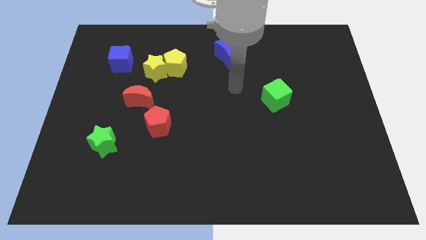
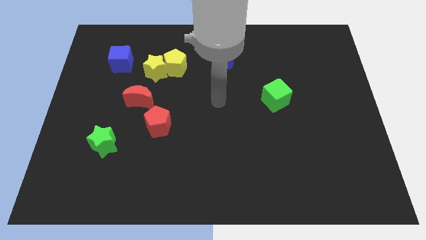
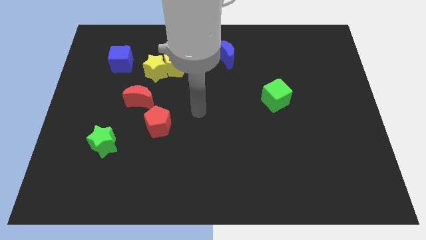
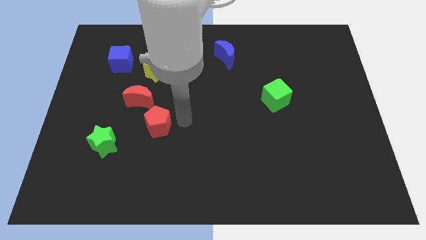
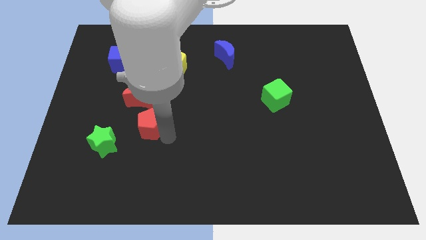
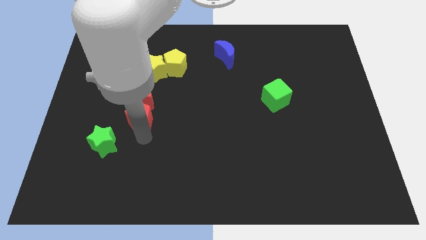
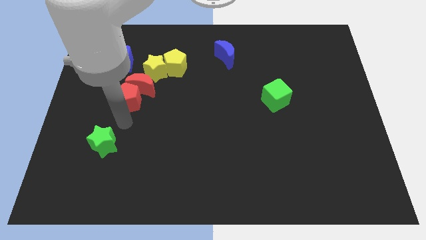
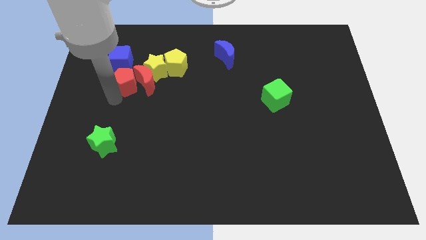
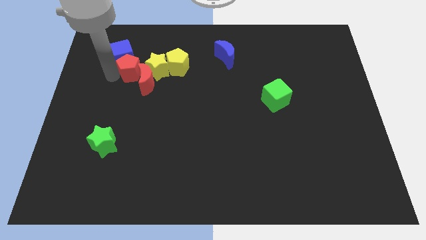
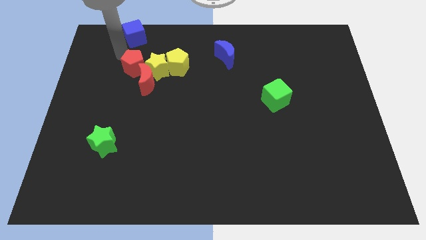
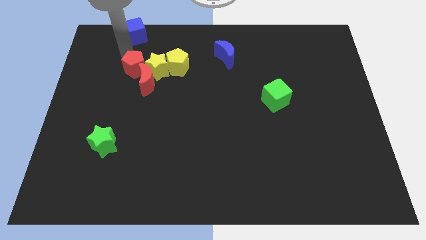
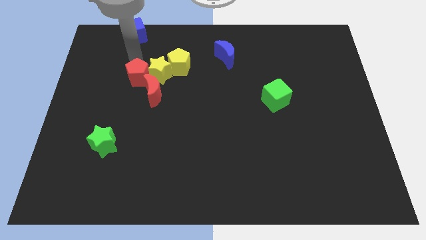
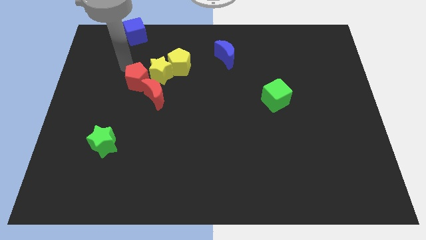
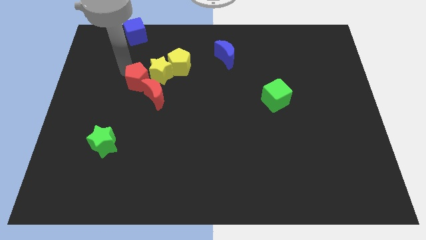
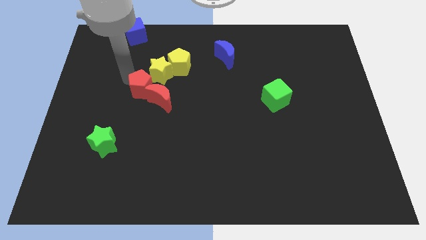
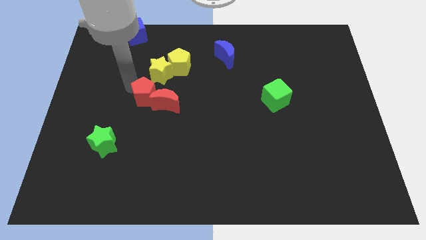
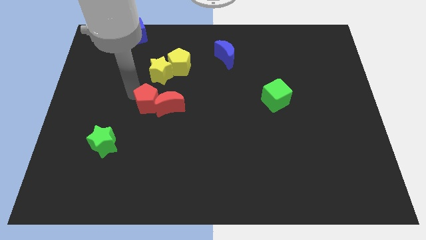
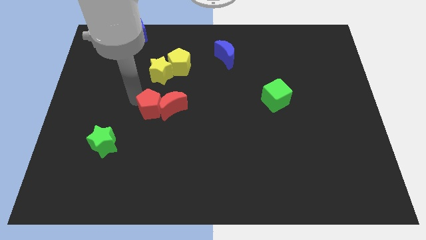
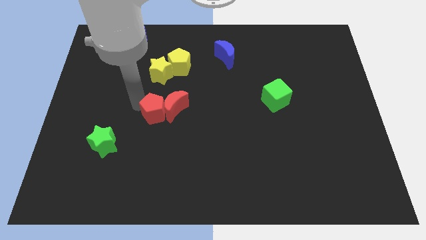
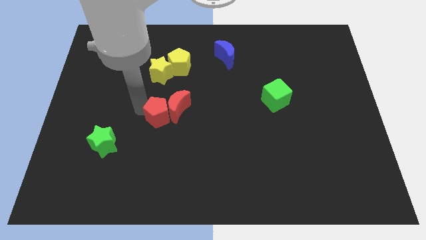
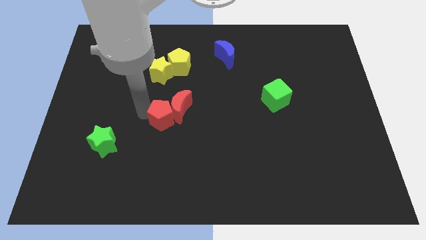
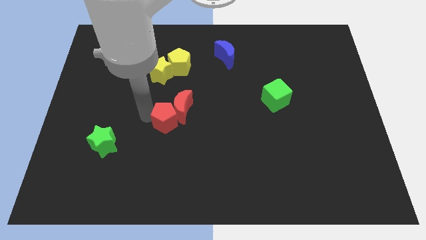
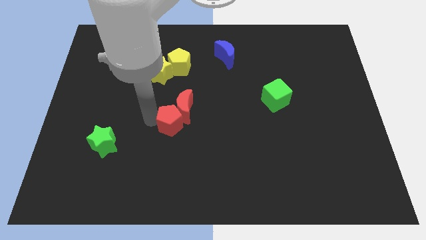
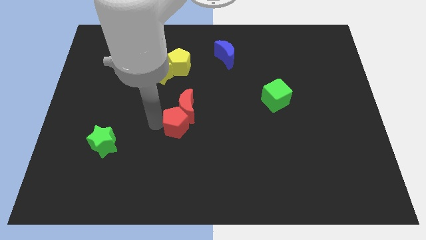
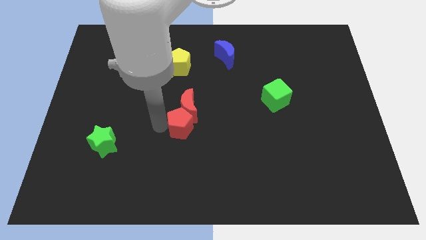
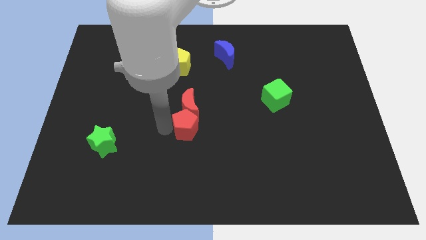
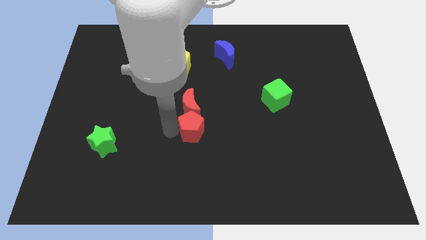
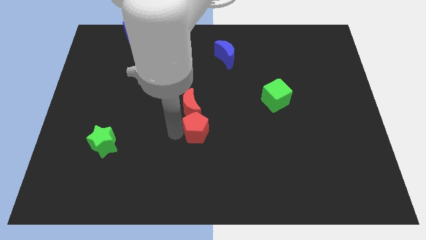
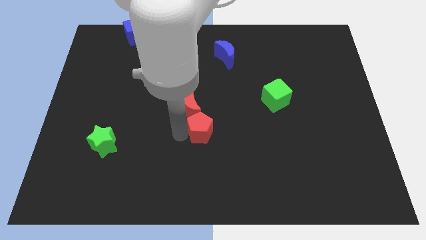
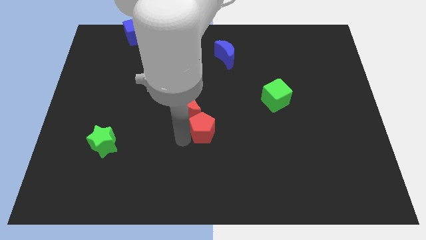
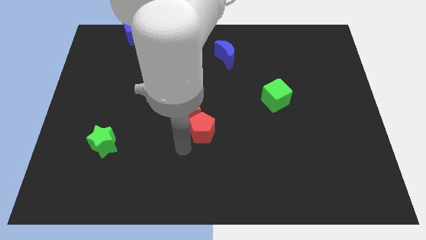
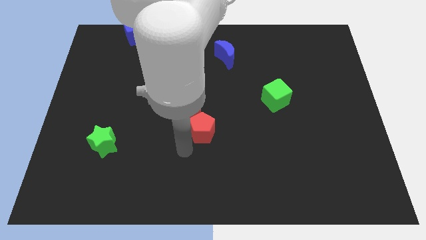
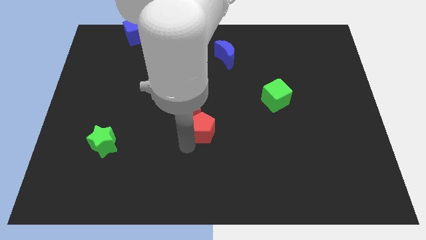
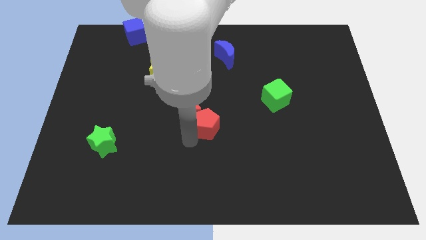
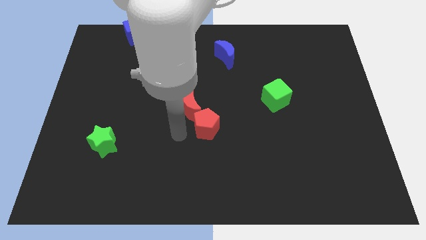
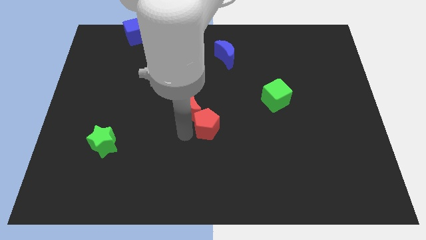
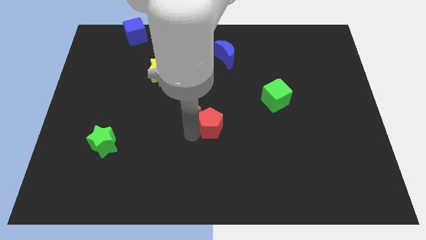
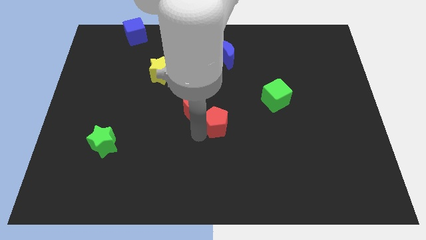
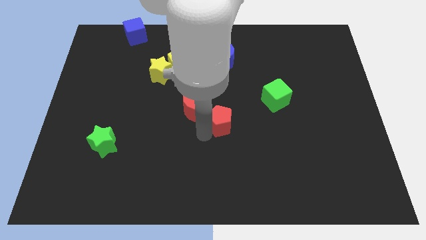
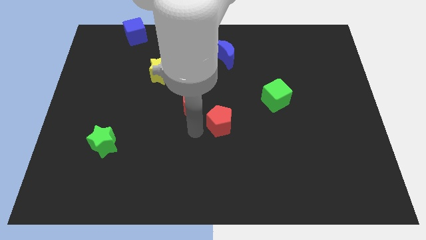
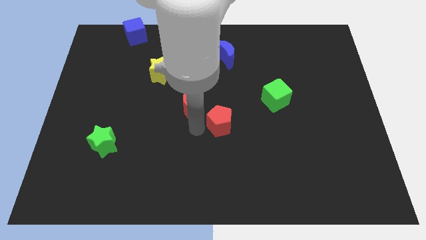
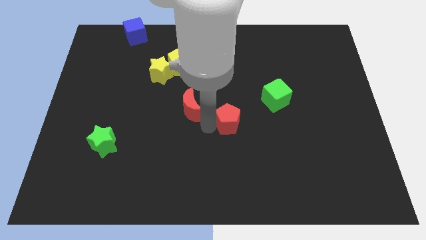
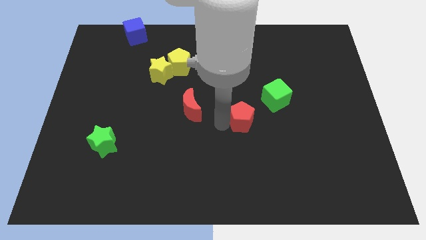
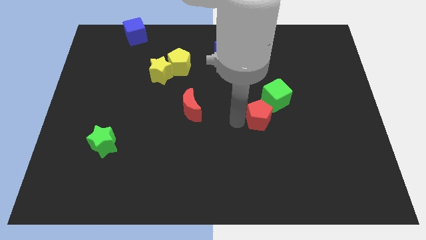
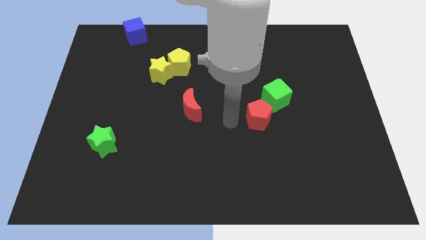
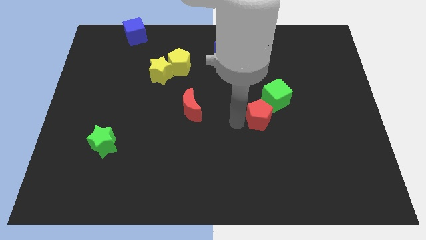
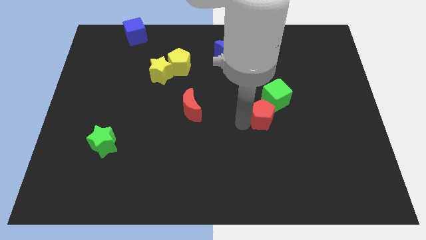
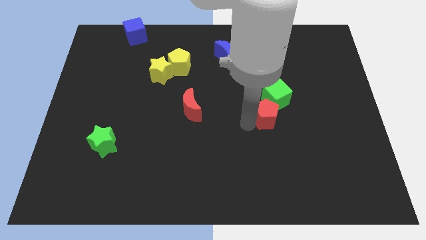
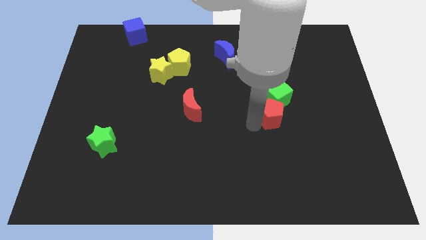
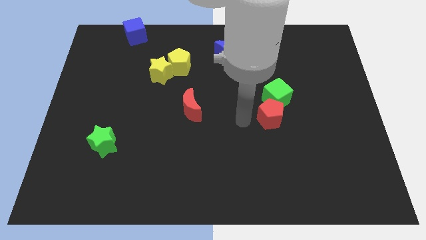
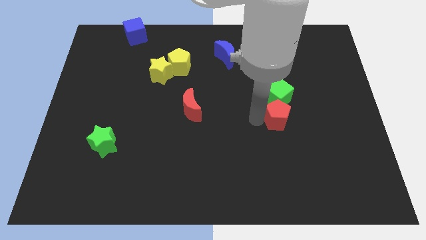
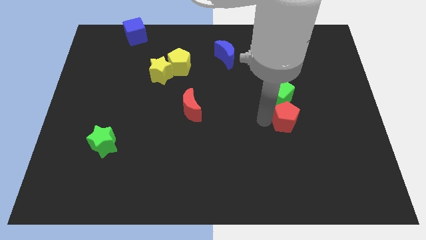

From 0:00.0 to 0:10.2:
push the red pentagon to the bottom right side of the green cube

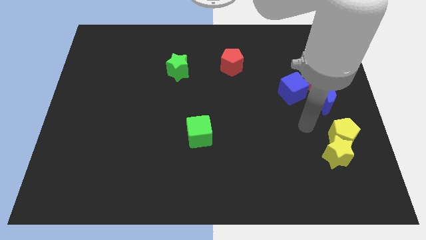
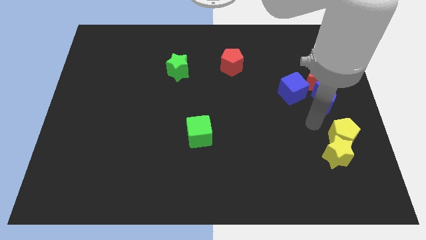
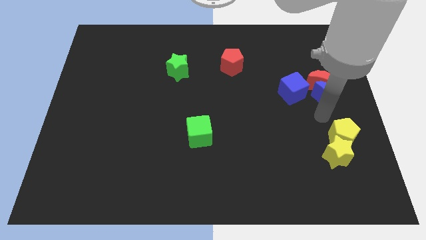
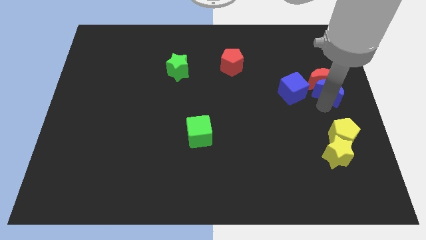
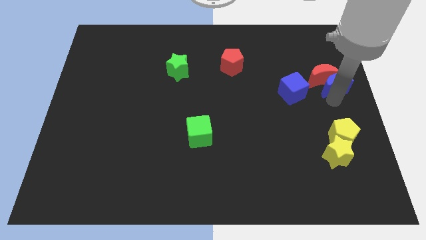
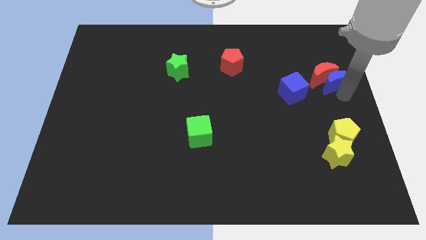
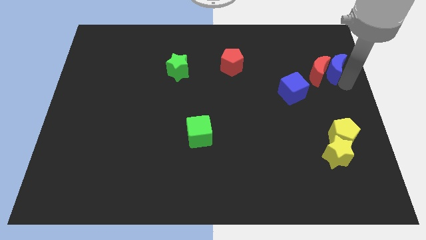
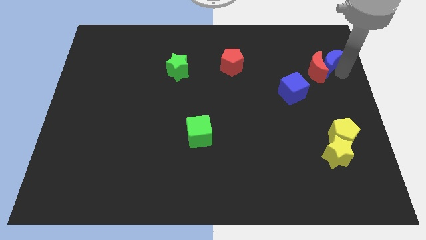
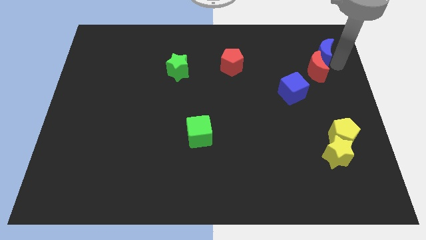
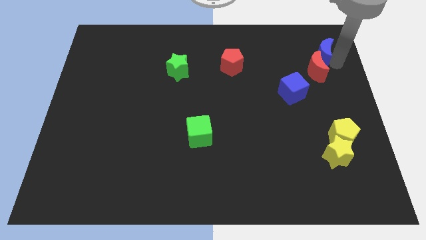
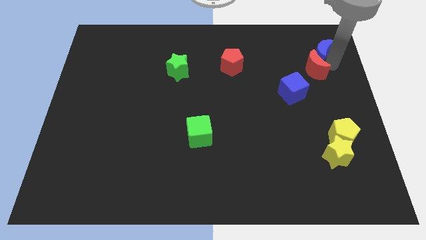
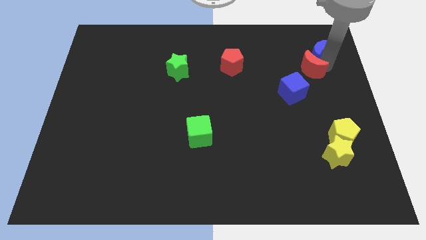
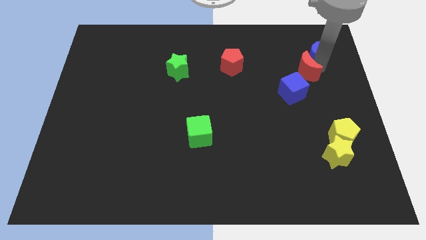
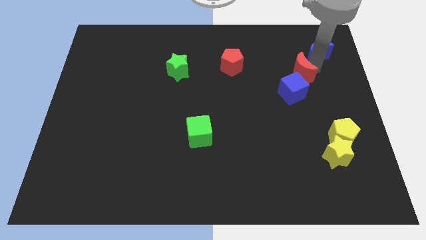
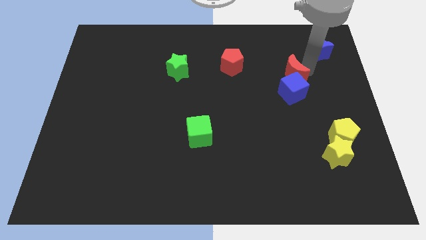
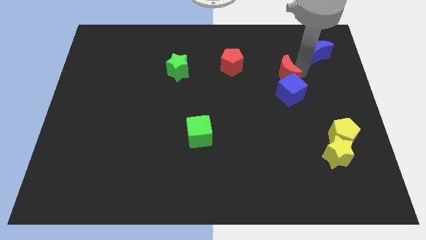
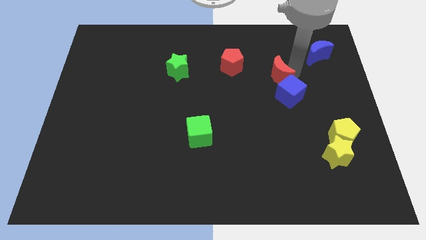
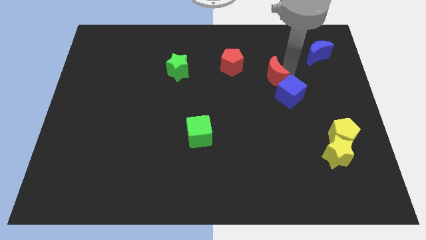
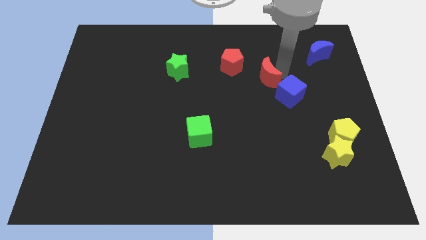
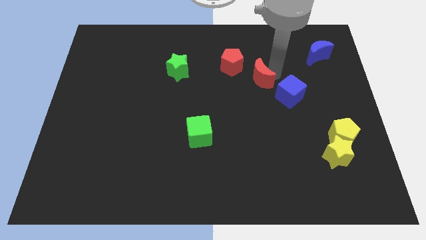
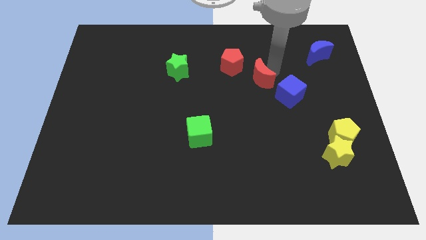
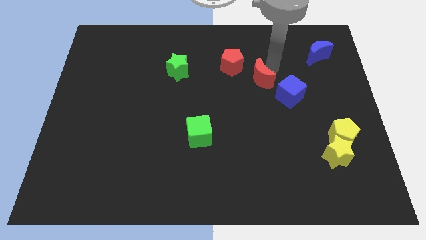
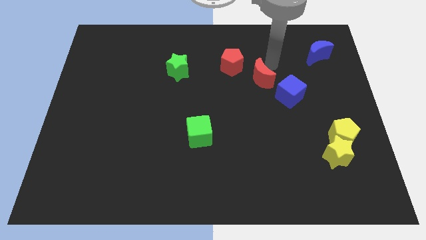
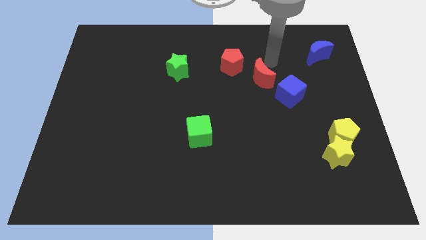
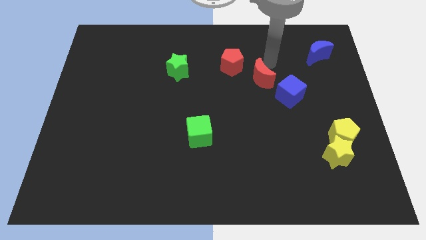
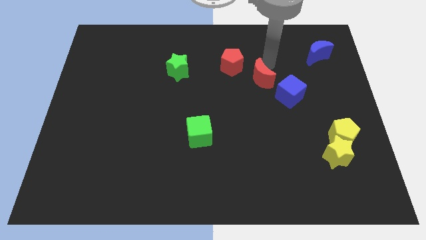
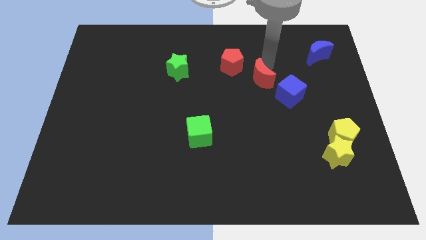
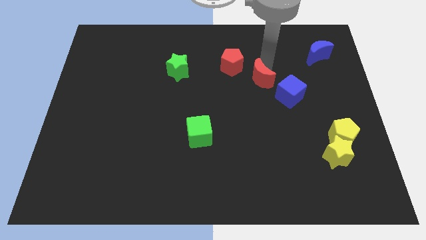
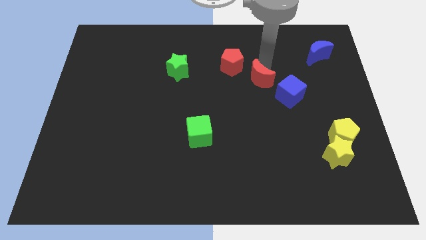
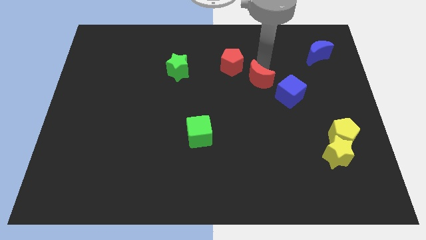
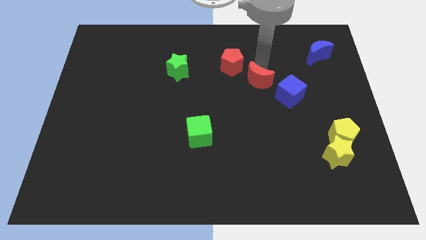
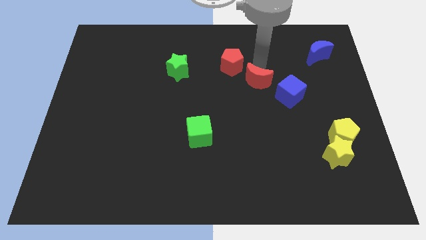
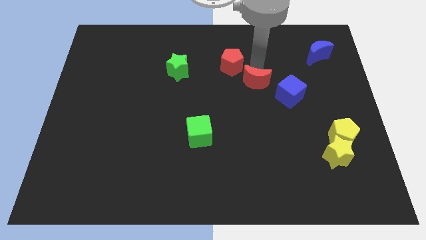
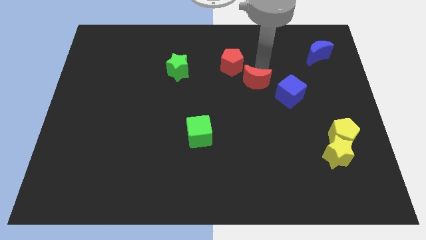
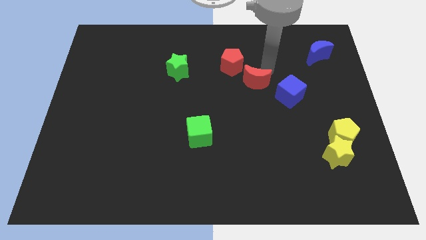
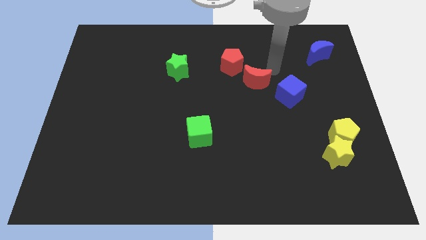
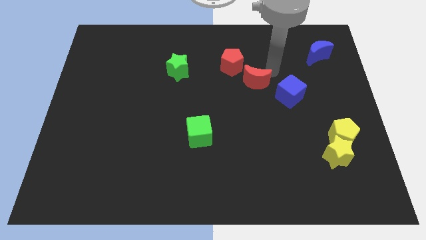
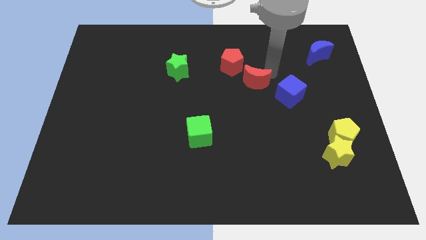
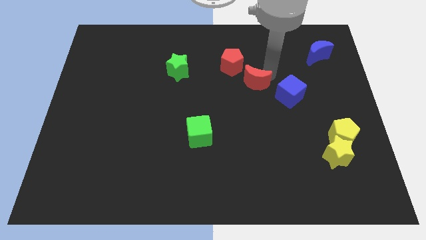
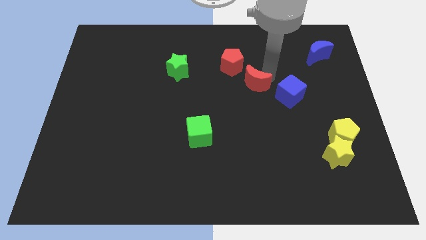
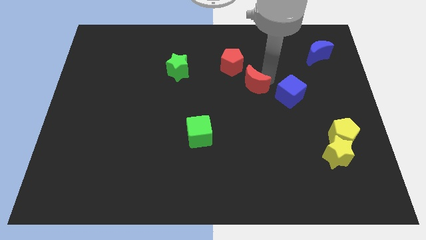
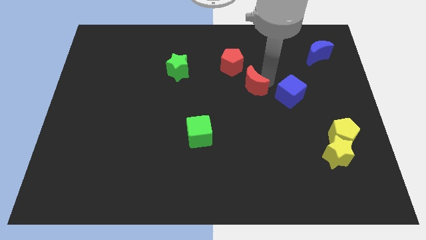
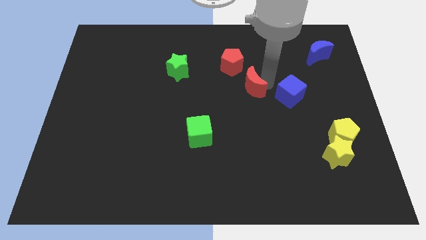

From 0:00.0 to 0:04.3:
push the red moon to the bottom of the red pentagon
